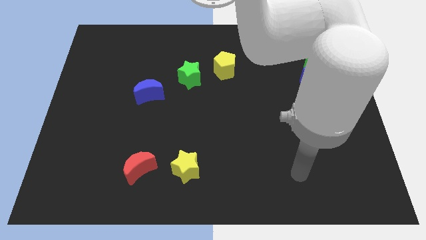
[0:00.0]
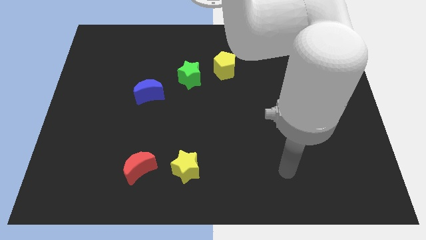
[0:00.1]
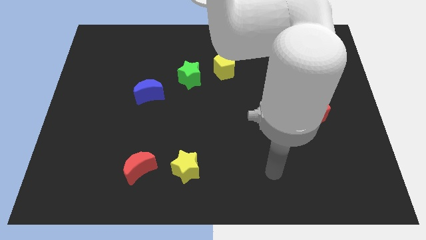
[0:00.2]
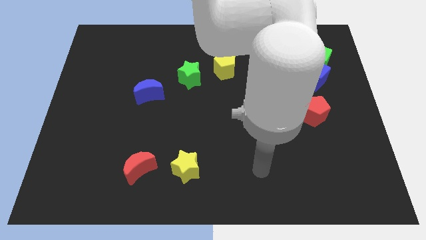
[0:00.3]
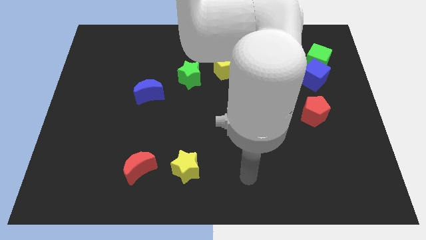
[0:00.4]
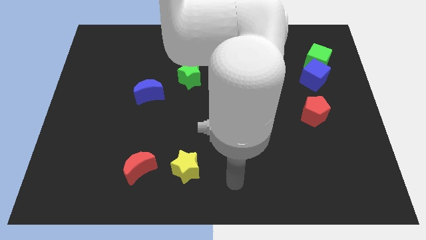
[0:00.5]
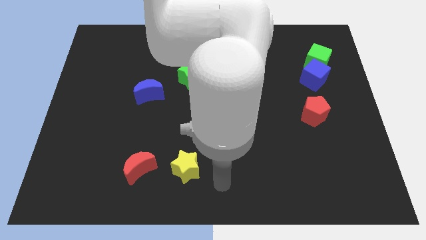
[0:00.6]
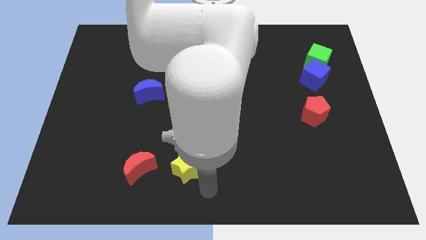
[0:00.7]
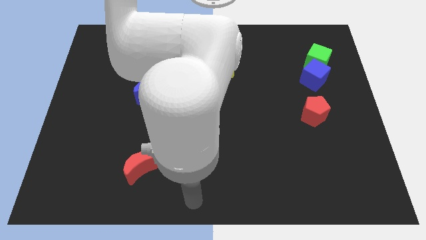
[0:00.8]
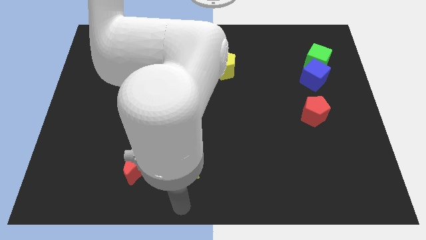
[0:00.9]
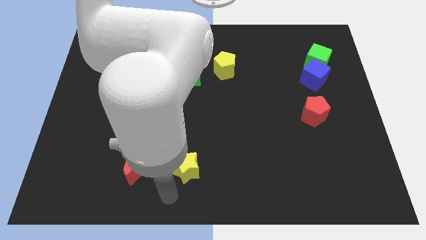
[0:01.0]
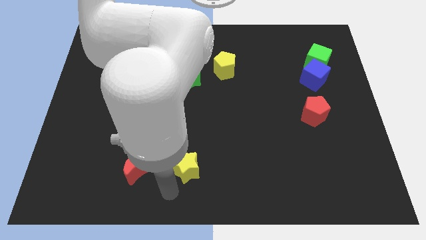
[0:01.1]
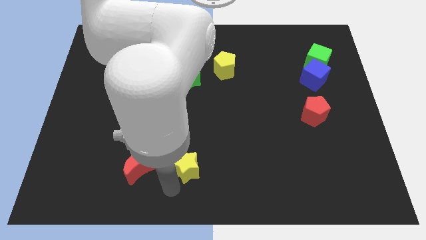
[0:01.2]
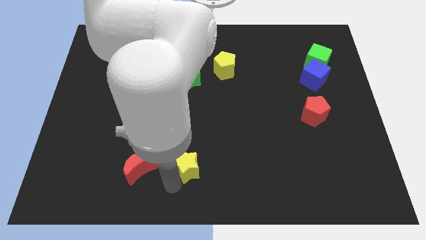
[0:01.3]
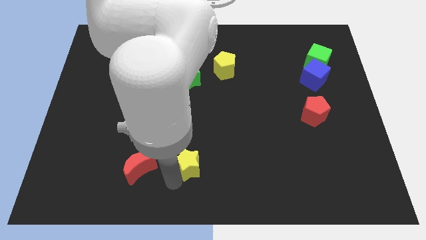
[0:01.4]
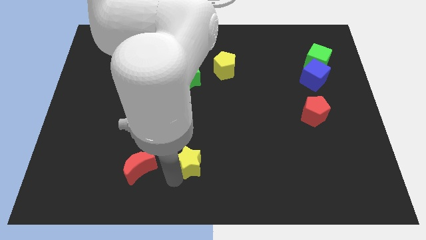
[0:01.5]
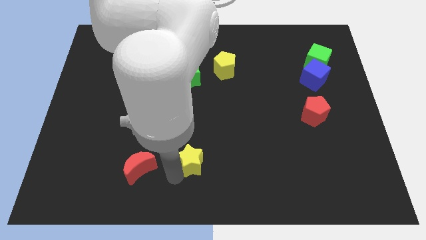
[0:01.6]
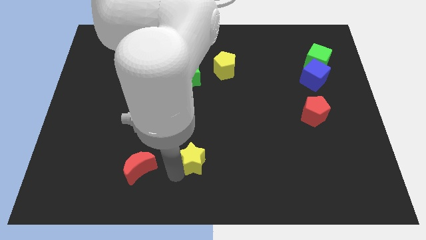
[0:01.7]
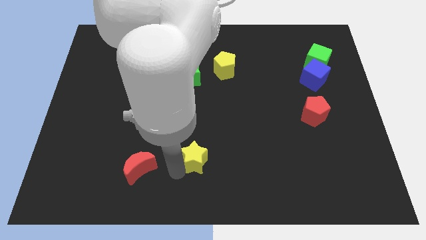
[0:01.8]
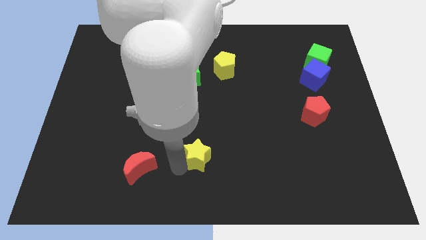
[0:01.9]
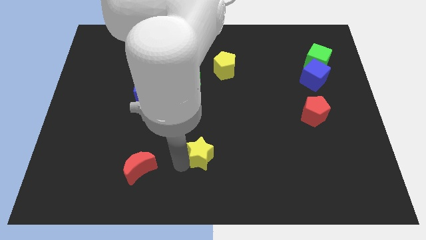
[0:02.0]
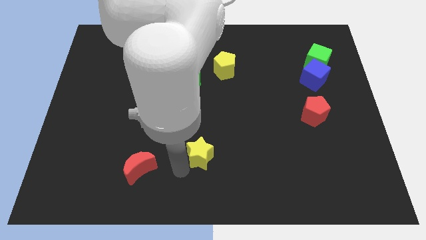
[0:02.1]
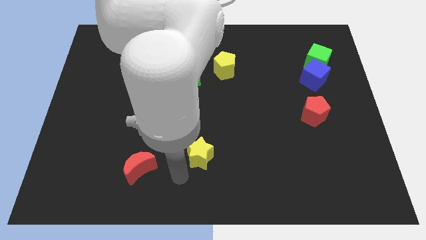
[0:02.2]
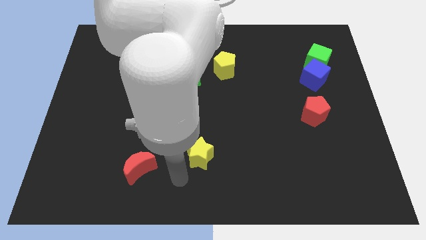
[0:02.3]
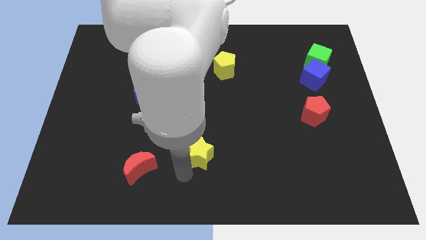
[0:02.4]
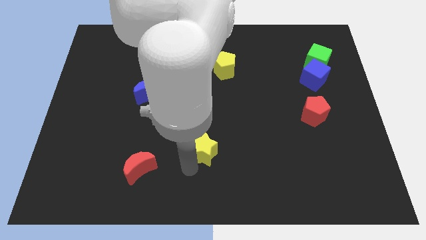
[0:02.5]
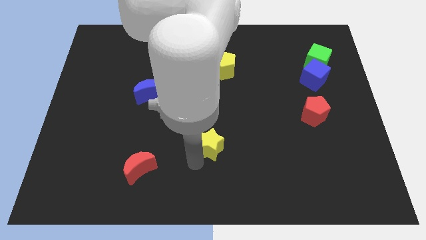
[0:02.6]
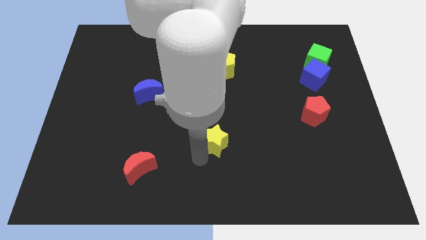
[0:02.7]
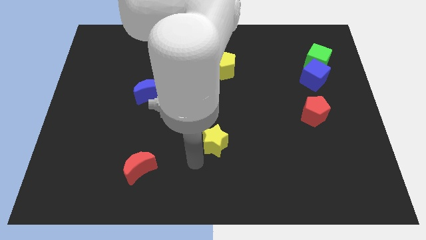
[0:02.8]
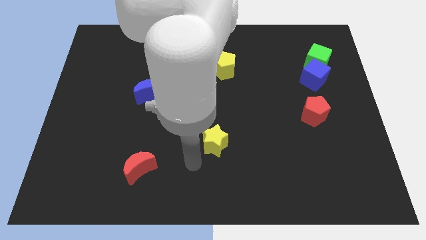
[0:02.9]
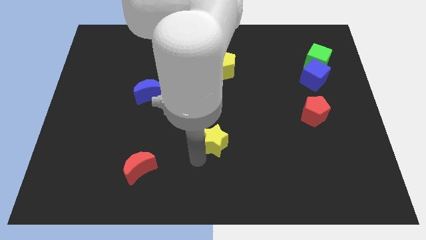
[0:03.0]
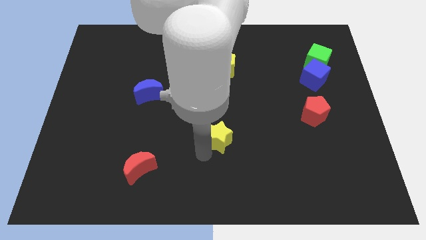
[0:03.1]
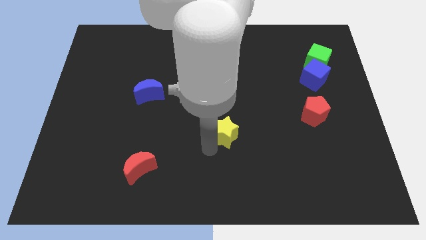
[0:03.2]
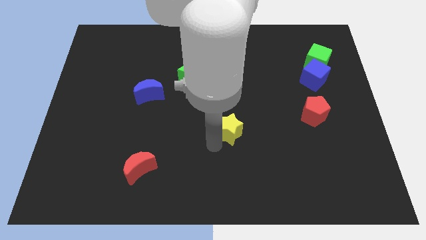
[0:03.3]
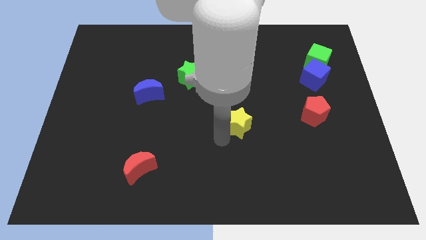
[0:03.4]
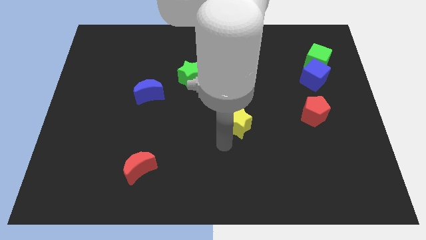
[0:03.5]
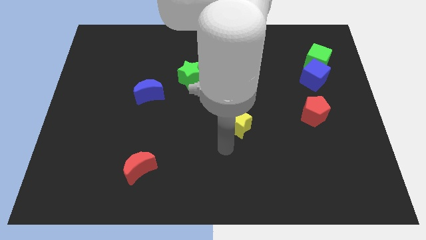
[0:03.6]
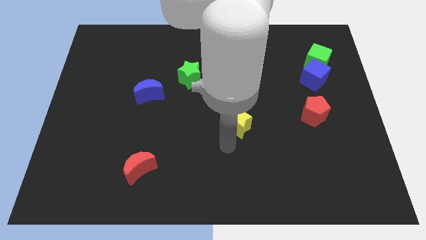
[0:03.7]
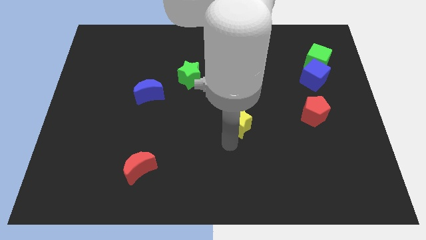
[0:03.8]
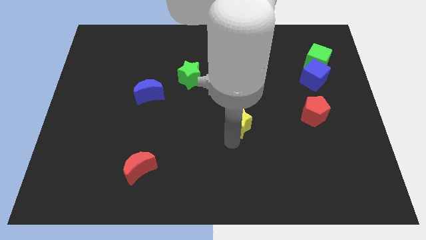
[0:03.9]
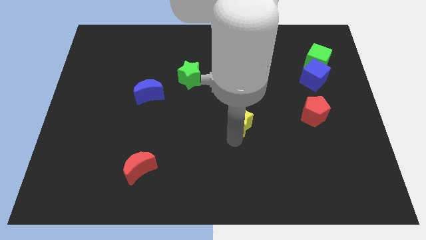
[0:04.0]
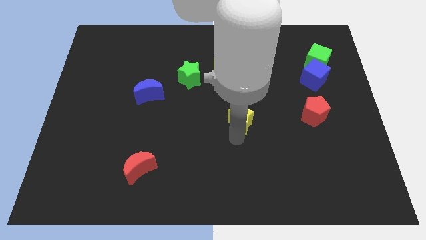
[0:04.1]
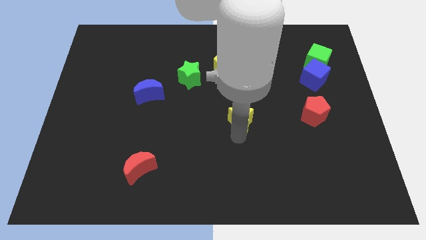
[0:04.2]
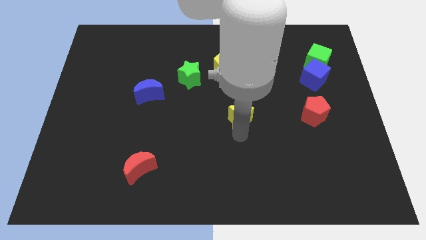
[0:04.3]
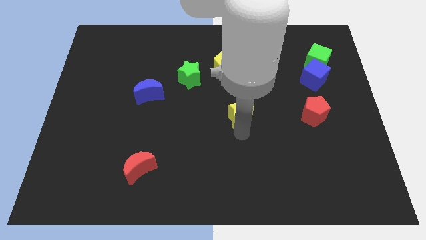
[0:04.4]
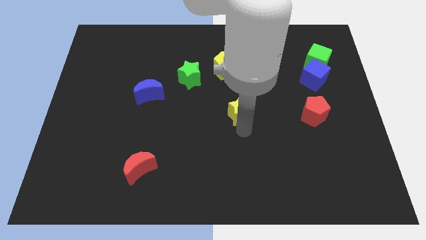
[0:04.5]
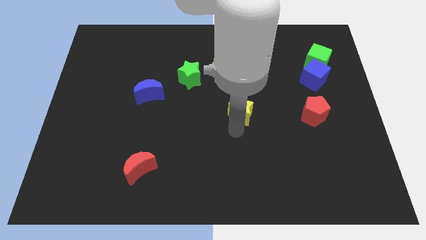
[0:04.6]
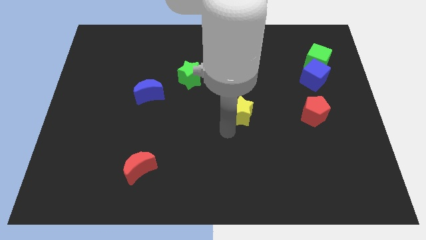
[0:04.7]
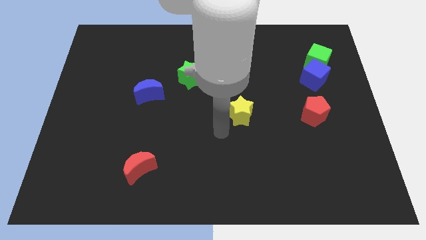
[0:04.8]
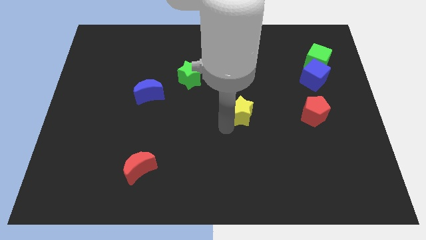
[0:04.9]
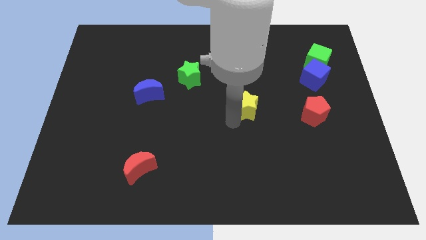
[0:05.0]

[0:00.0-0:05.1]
push the yellow star upwards and right

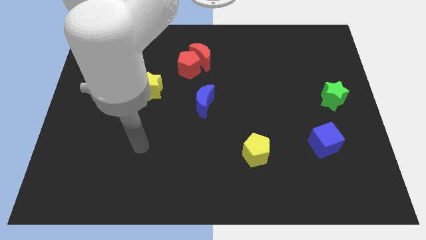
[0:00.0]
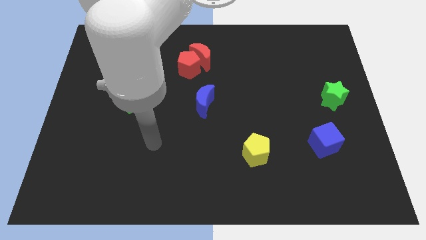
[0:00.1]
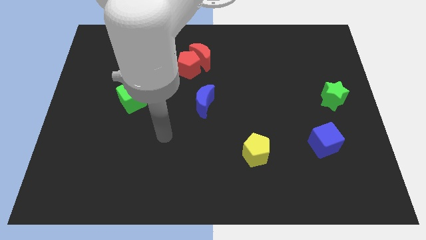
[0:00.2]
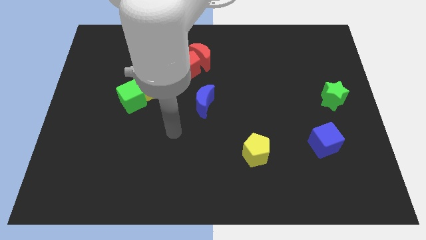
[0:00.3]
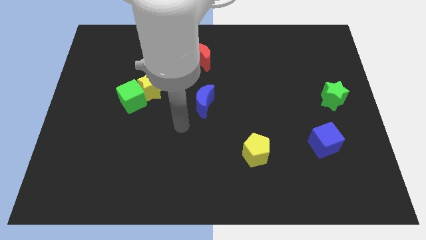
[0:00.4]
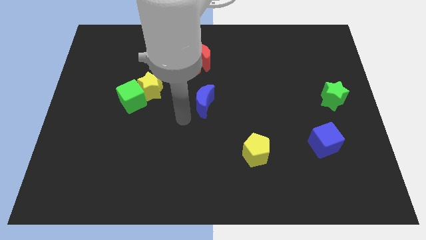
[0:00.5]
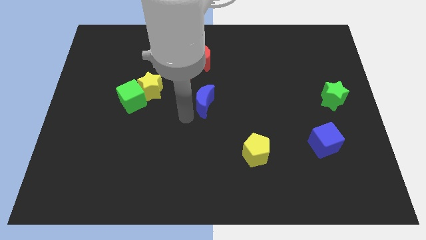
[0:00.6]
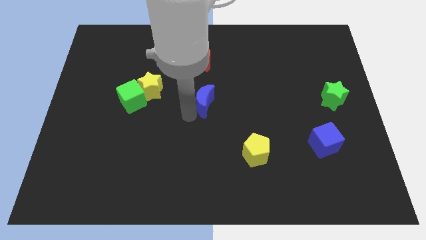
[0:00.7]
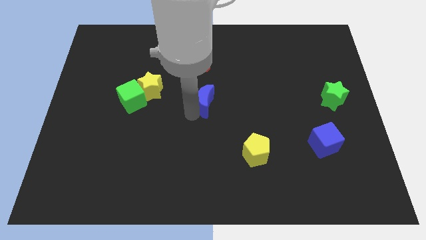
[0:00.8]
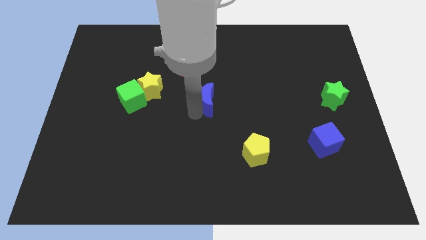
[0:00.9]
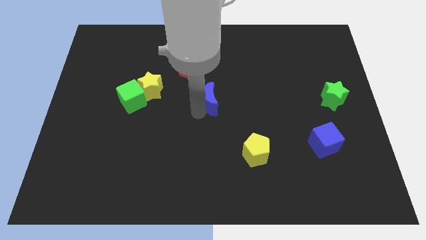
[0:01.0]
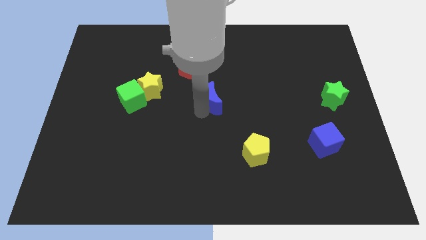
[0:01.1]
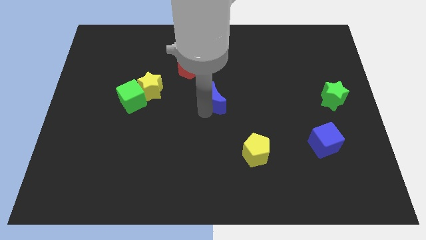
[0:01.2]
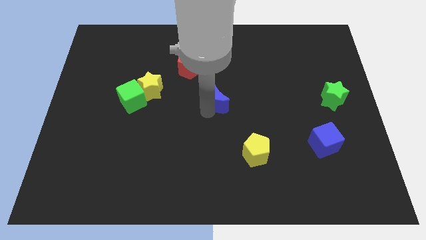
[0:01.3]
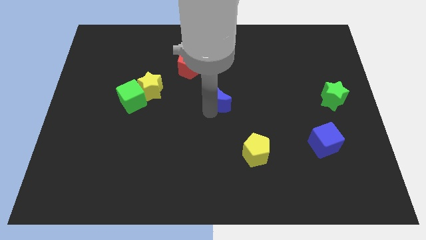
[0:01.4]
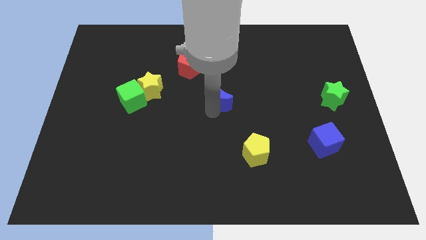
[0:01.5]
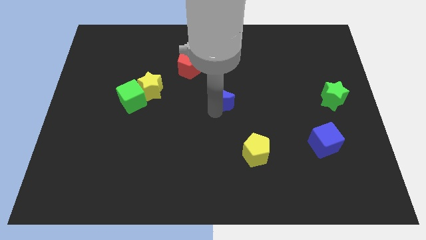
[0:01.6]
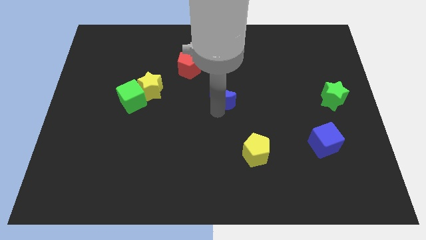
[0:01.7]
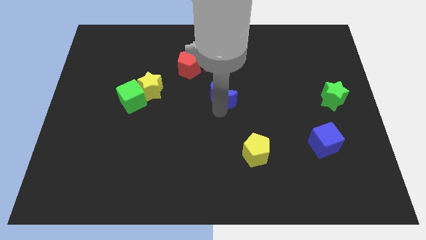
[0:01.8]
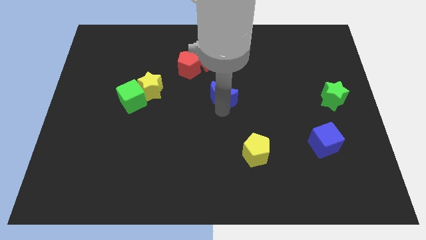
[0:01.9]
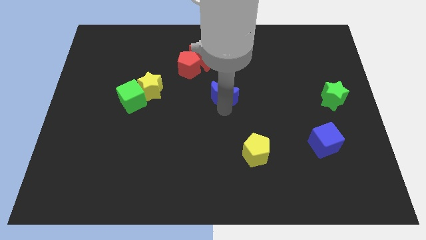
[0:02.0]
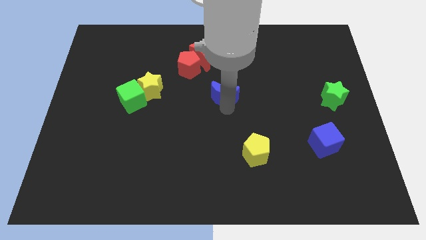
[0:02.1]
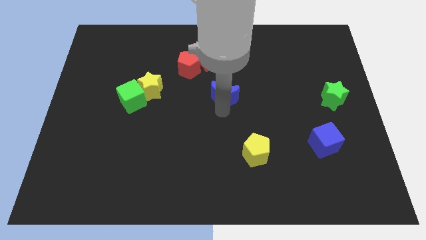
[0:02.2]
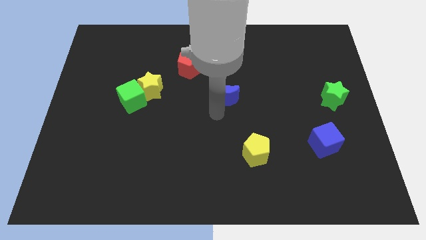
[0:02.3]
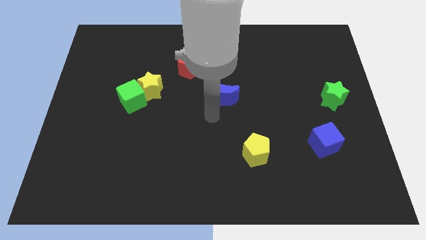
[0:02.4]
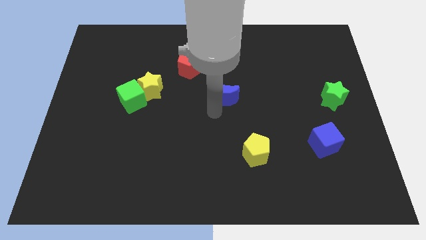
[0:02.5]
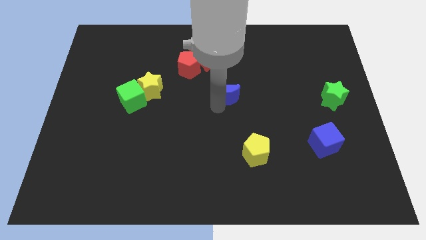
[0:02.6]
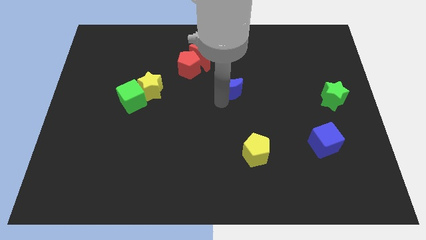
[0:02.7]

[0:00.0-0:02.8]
slide the blue moon slightly upwards and right

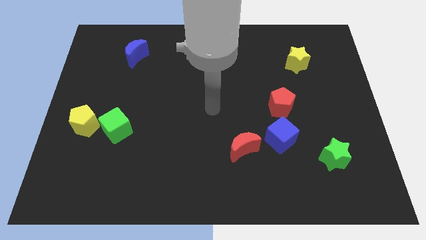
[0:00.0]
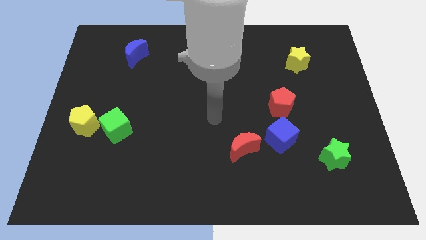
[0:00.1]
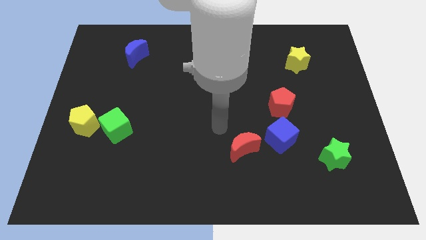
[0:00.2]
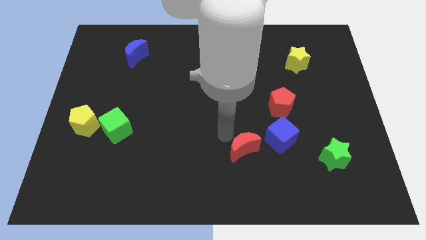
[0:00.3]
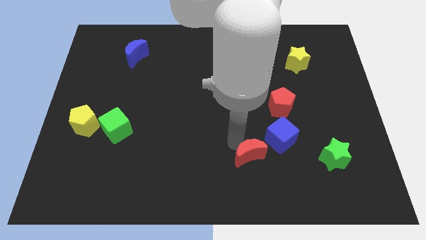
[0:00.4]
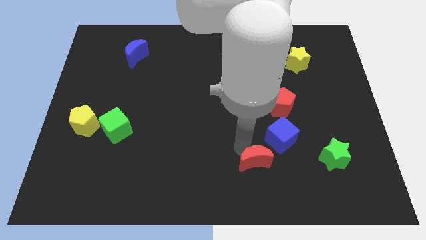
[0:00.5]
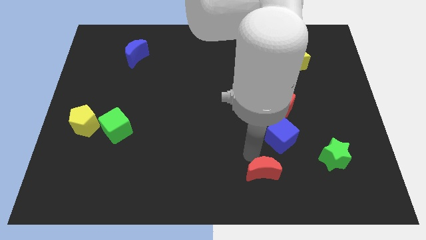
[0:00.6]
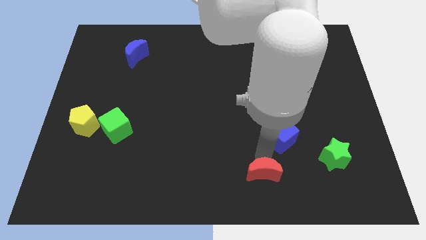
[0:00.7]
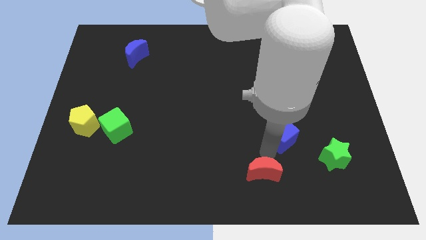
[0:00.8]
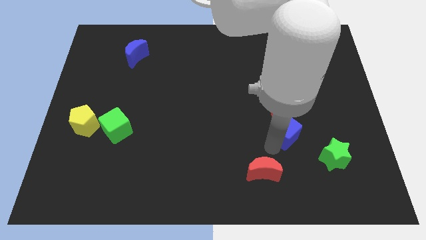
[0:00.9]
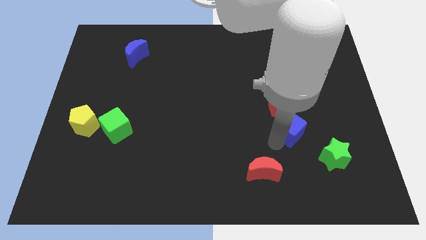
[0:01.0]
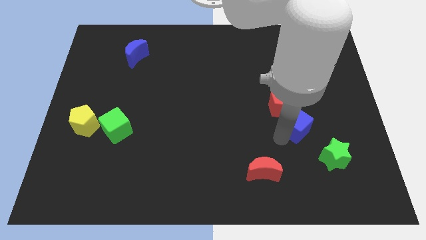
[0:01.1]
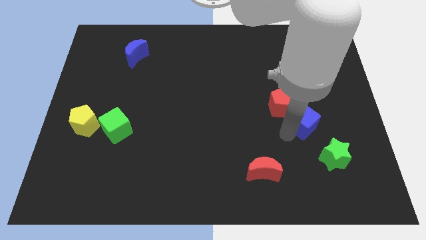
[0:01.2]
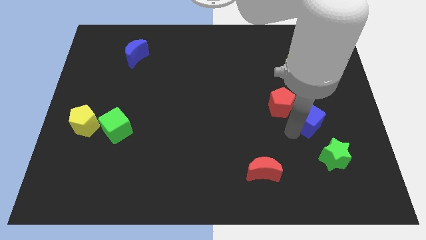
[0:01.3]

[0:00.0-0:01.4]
push the blue cube a little diagonally upwards and right
